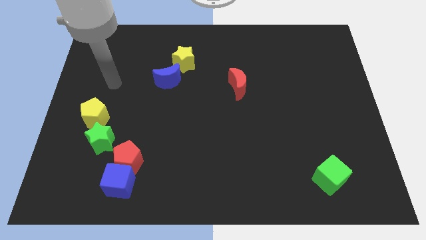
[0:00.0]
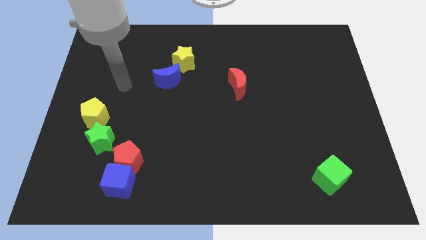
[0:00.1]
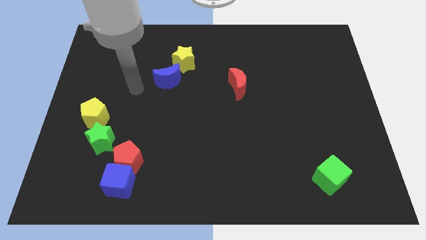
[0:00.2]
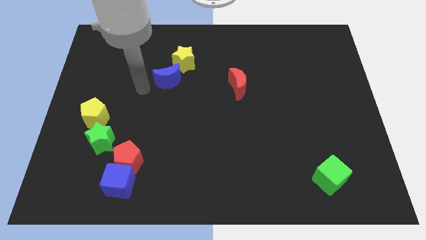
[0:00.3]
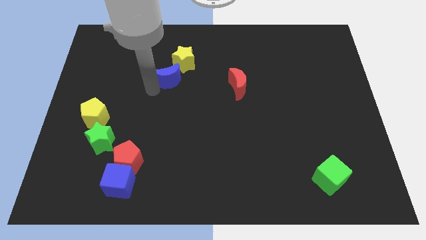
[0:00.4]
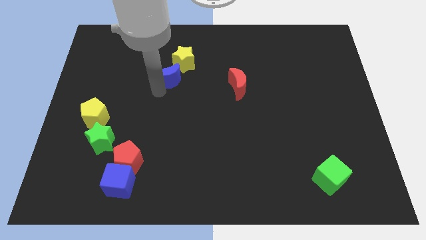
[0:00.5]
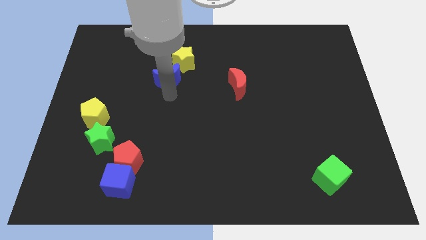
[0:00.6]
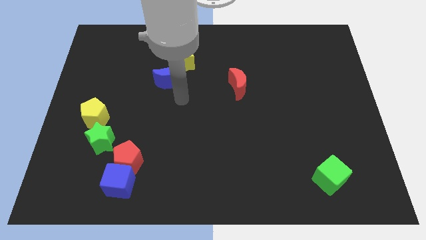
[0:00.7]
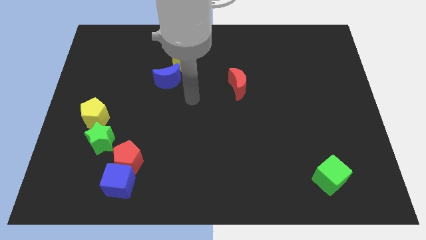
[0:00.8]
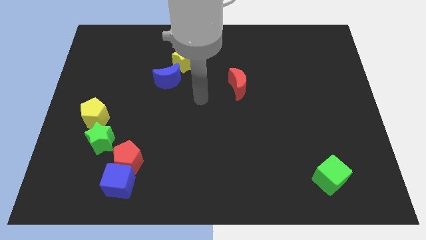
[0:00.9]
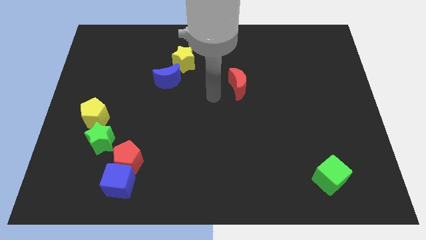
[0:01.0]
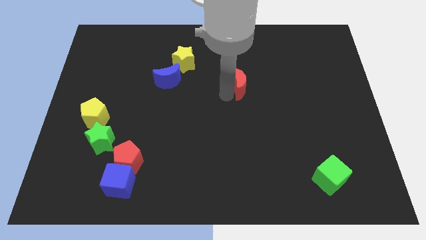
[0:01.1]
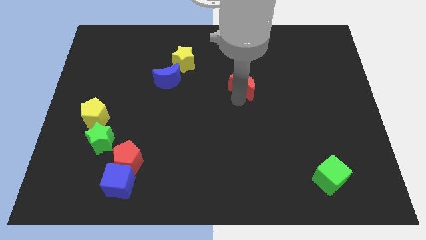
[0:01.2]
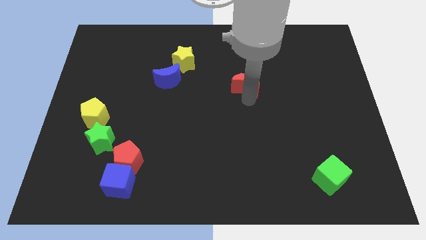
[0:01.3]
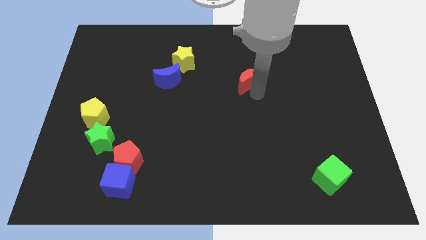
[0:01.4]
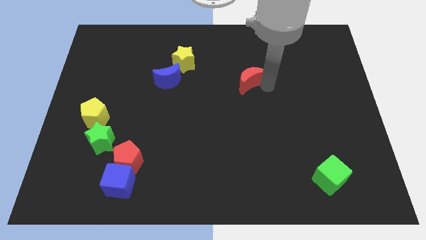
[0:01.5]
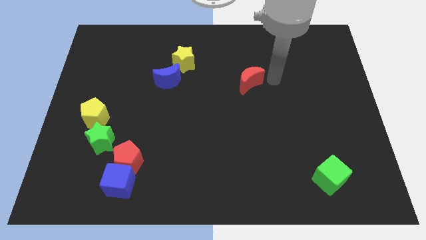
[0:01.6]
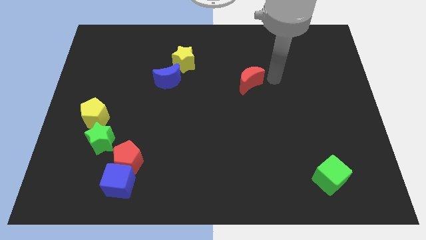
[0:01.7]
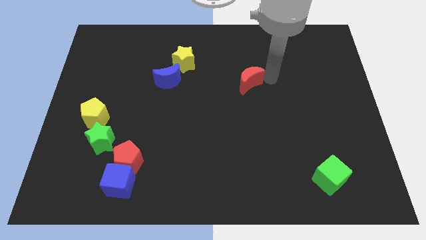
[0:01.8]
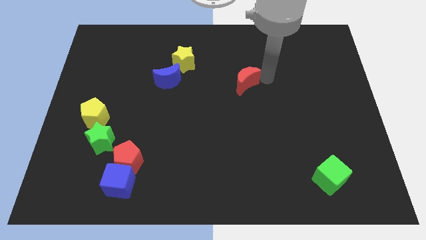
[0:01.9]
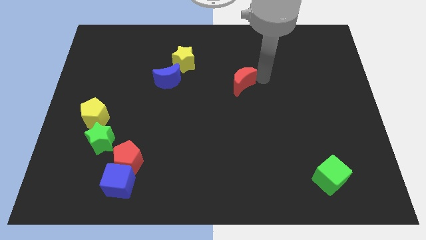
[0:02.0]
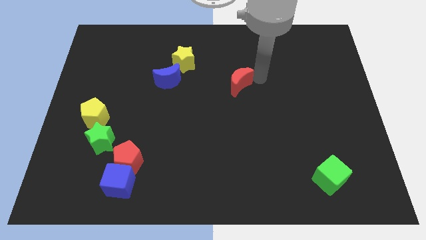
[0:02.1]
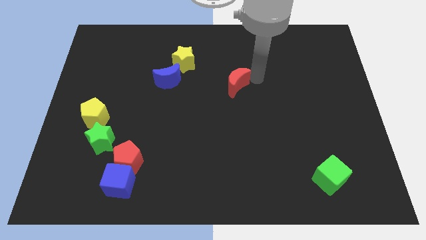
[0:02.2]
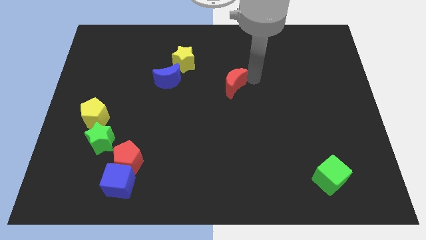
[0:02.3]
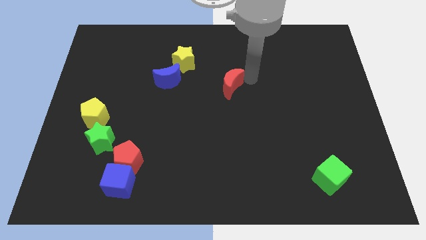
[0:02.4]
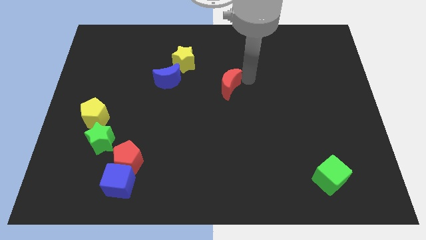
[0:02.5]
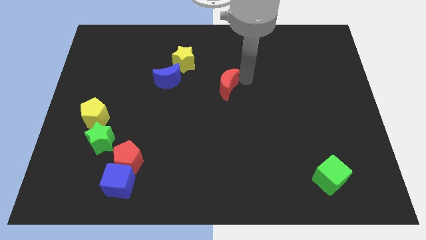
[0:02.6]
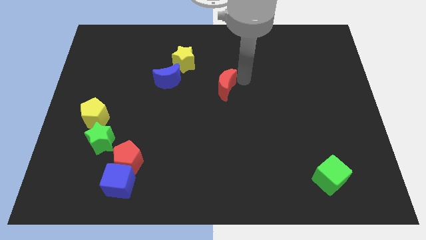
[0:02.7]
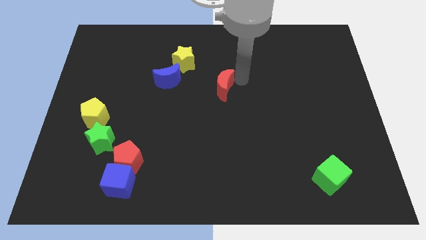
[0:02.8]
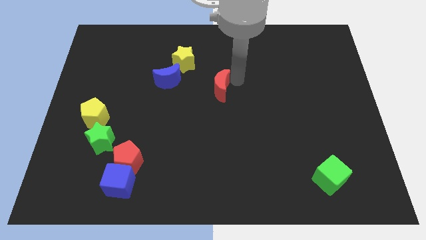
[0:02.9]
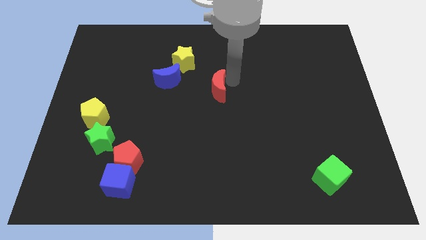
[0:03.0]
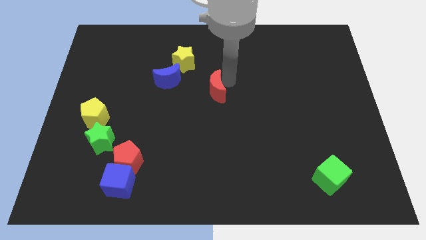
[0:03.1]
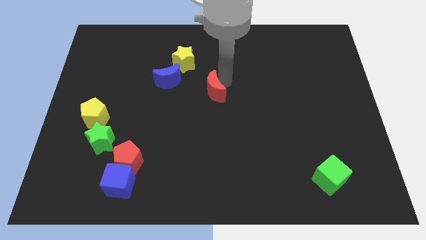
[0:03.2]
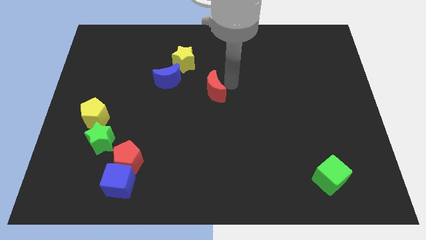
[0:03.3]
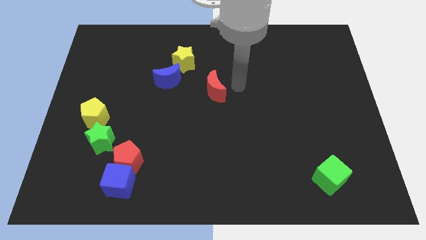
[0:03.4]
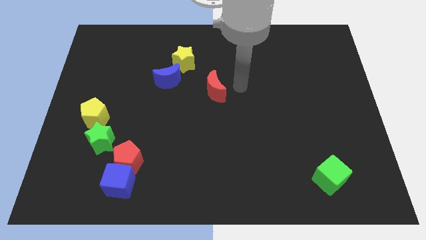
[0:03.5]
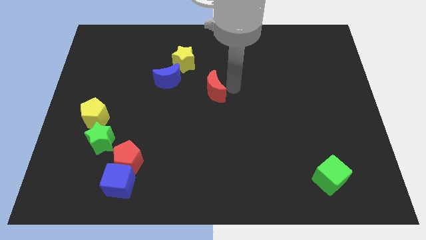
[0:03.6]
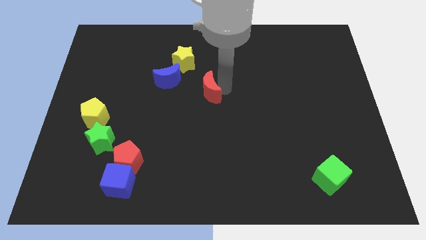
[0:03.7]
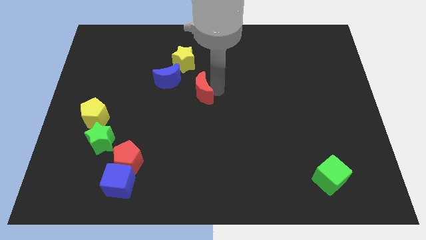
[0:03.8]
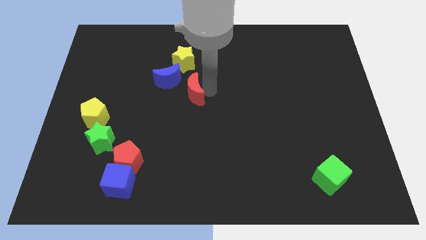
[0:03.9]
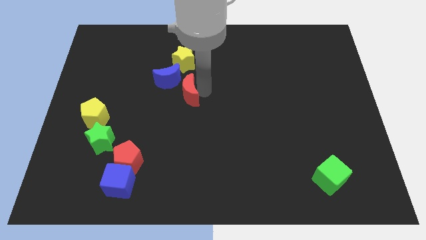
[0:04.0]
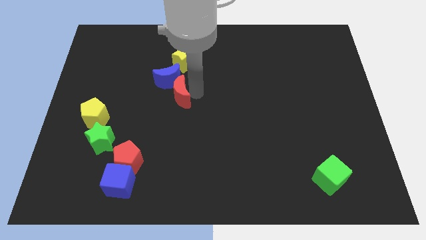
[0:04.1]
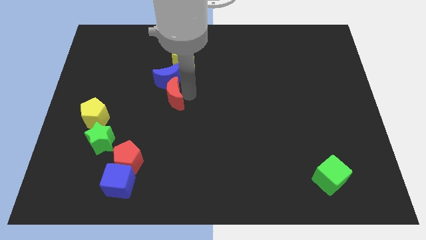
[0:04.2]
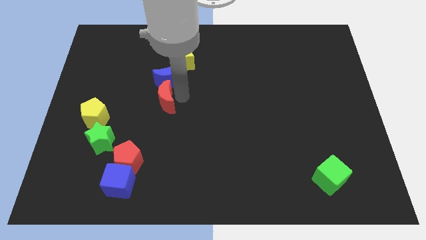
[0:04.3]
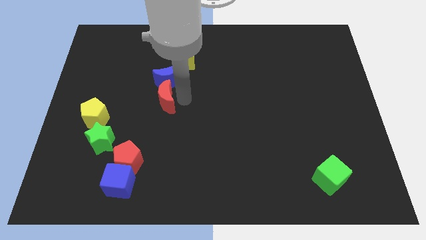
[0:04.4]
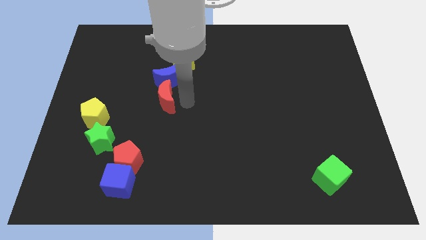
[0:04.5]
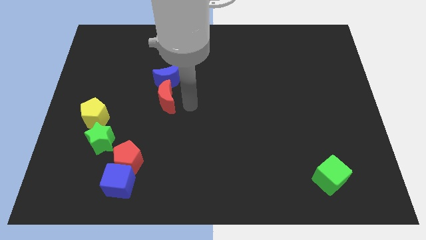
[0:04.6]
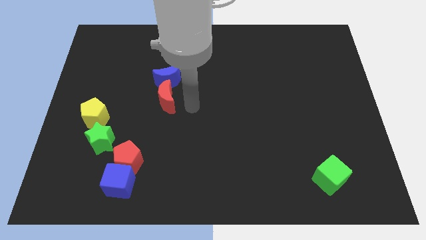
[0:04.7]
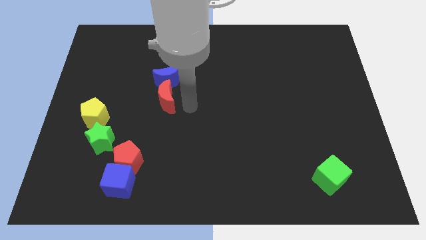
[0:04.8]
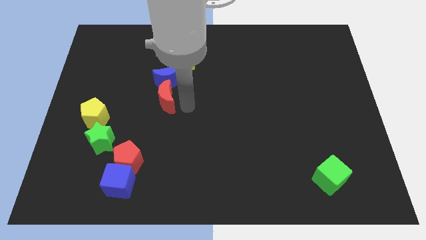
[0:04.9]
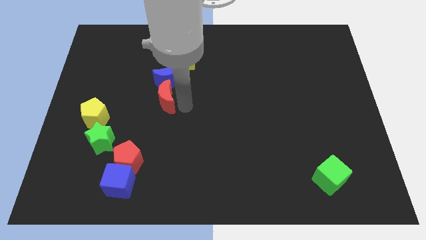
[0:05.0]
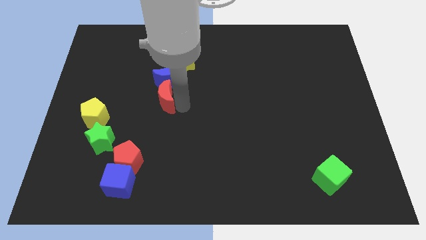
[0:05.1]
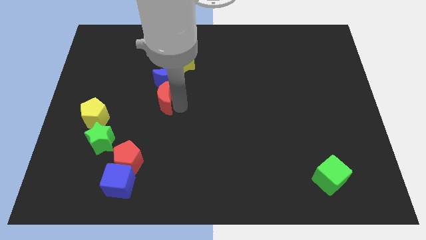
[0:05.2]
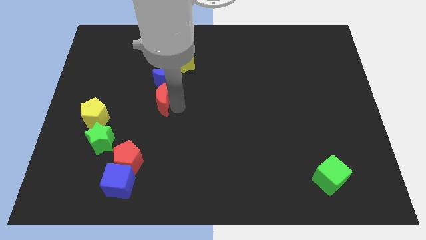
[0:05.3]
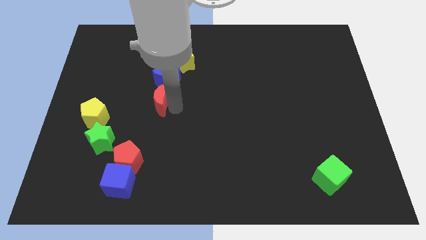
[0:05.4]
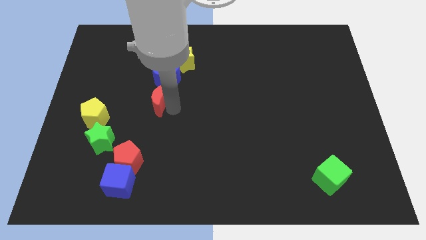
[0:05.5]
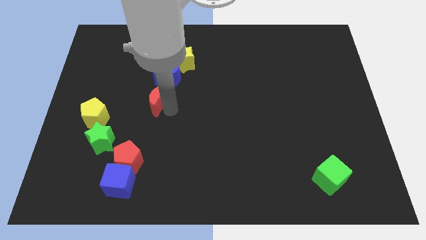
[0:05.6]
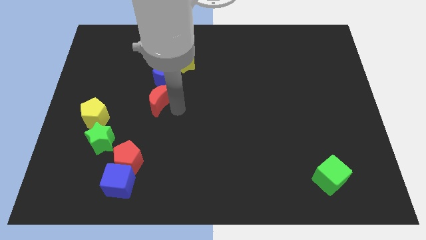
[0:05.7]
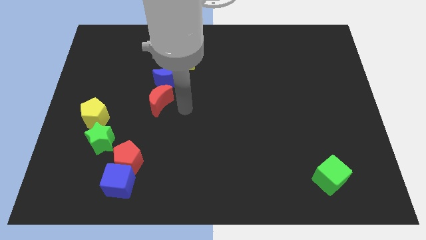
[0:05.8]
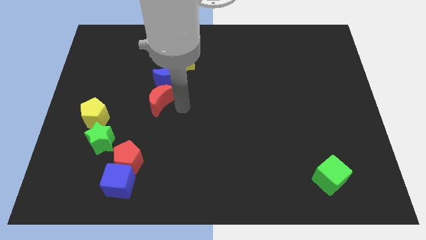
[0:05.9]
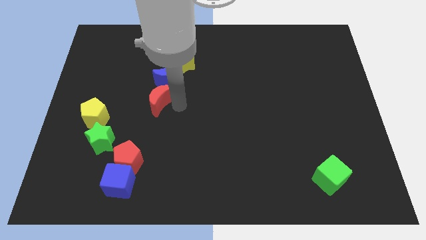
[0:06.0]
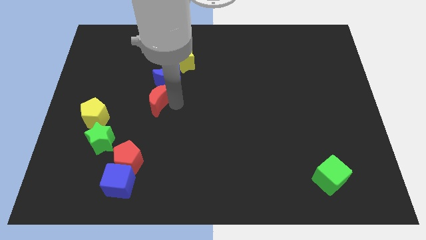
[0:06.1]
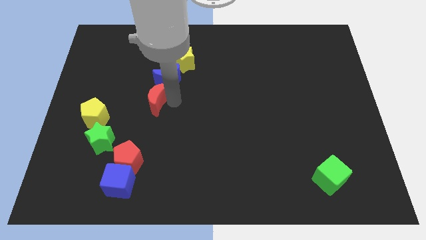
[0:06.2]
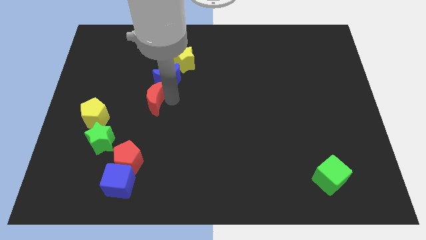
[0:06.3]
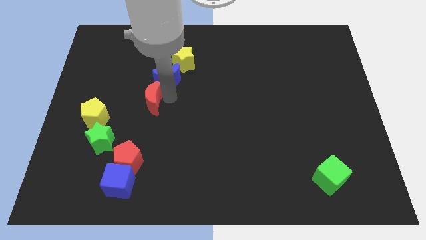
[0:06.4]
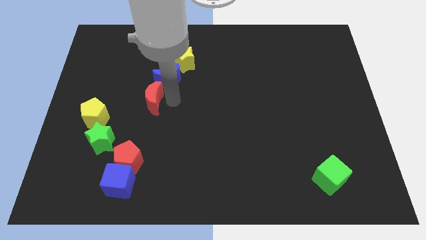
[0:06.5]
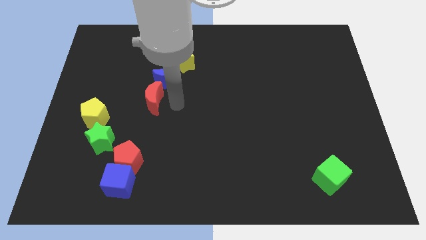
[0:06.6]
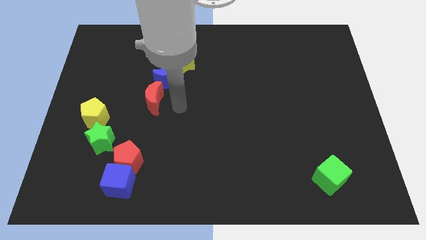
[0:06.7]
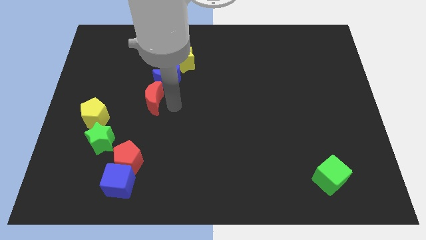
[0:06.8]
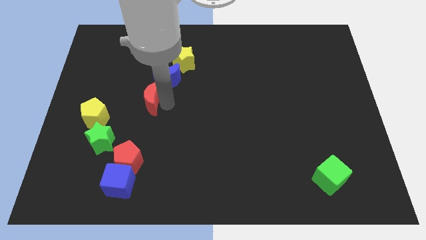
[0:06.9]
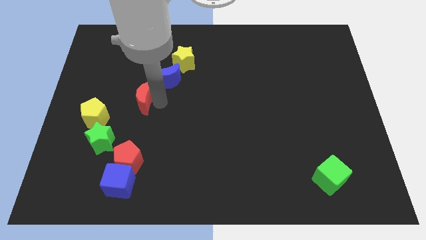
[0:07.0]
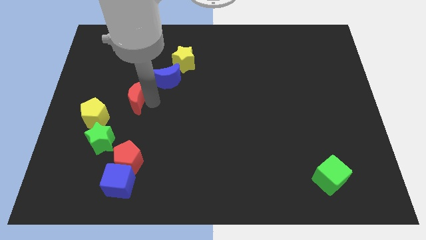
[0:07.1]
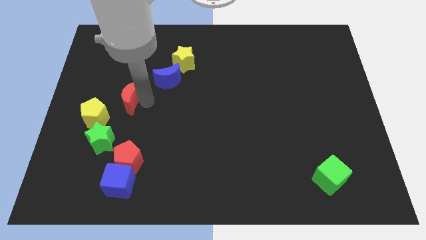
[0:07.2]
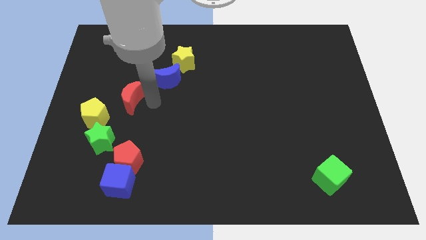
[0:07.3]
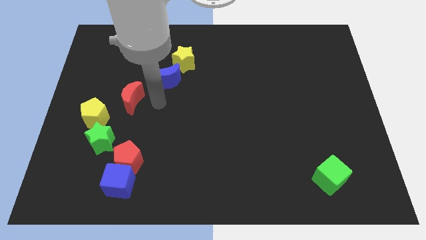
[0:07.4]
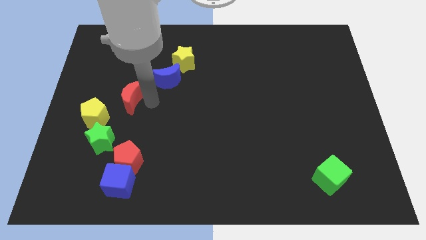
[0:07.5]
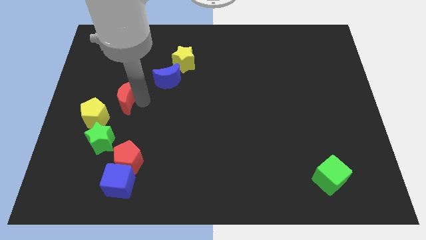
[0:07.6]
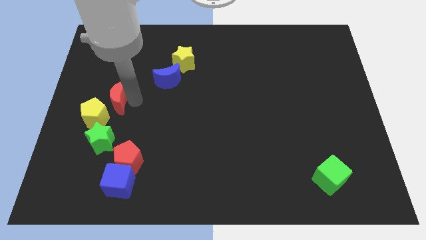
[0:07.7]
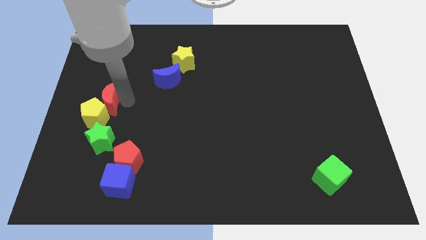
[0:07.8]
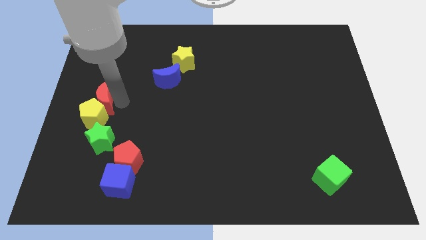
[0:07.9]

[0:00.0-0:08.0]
slide the red moon to the left side of the board
